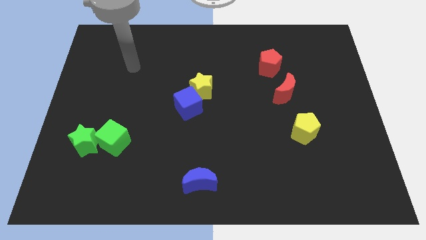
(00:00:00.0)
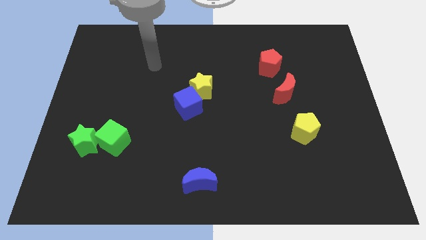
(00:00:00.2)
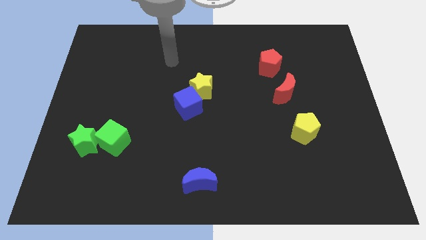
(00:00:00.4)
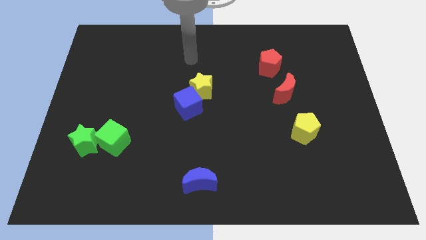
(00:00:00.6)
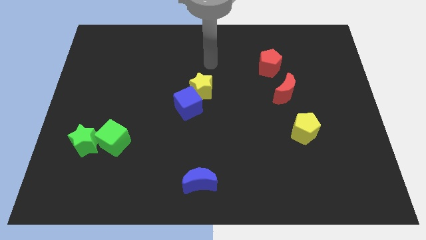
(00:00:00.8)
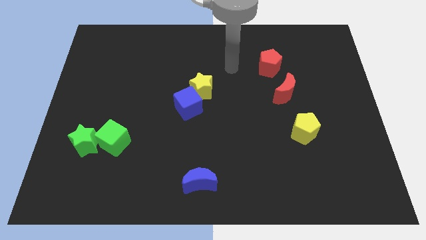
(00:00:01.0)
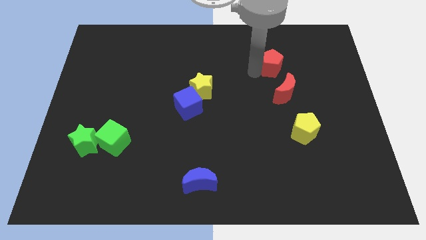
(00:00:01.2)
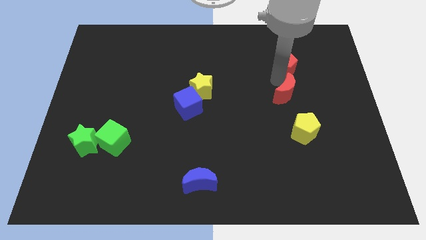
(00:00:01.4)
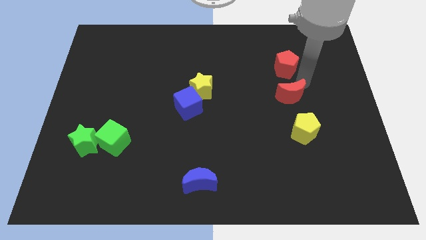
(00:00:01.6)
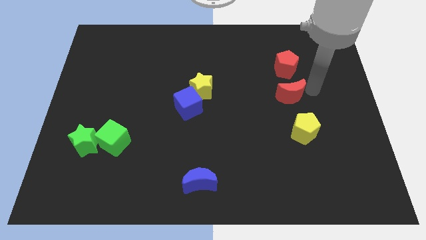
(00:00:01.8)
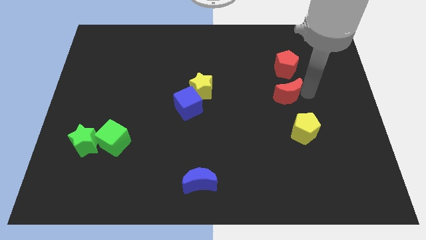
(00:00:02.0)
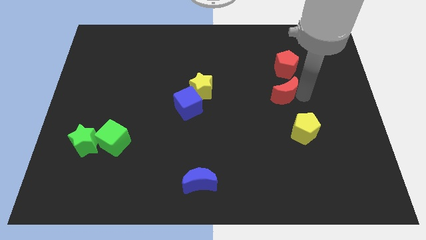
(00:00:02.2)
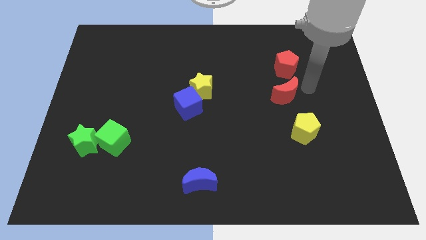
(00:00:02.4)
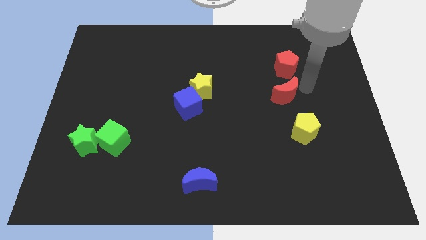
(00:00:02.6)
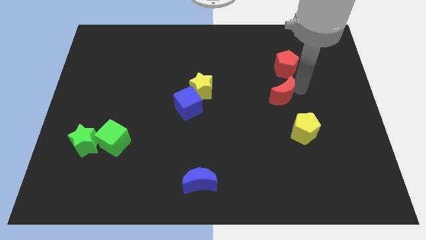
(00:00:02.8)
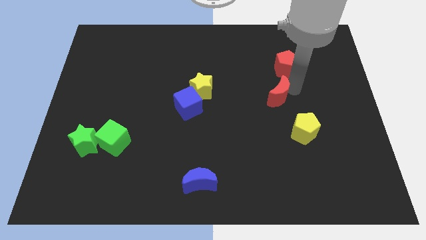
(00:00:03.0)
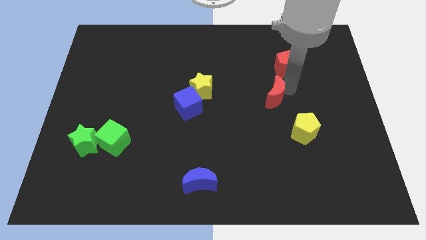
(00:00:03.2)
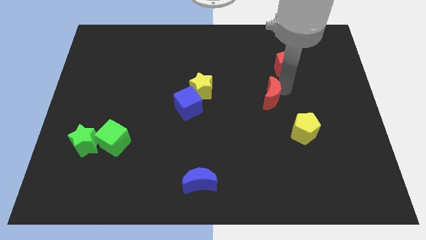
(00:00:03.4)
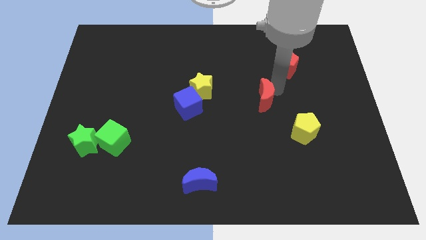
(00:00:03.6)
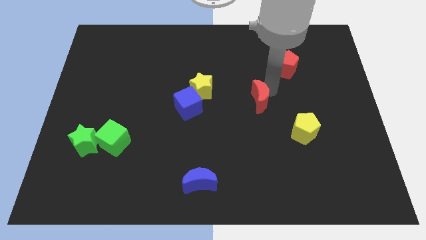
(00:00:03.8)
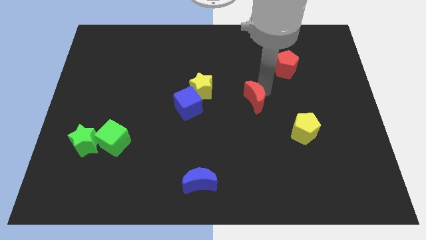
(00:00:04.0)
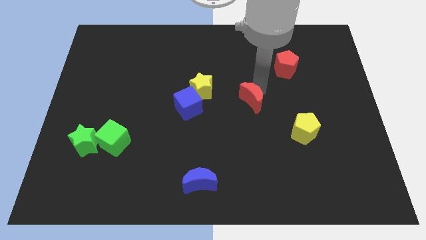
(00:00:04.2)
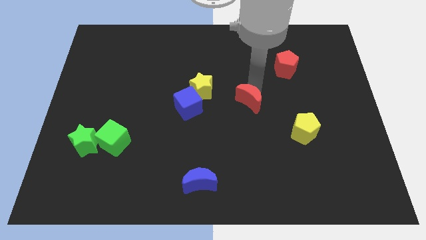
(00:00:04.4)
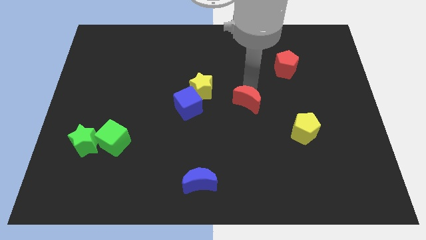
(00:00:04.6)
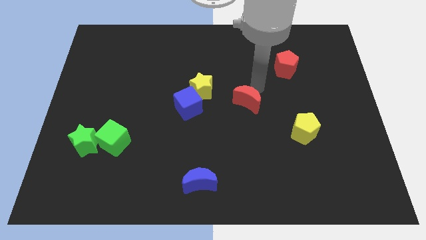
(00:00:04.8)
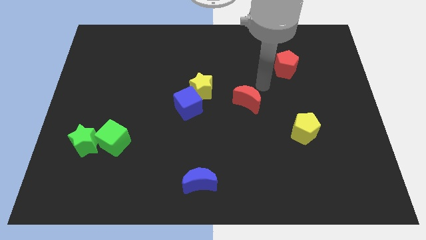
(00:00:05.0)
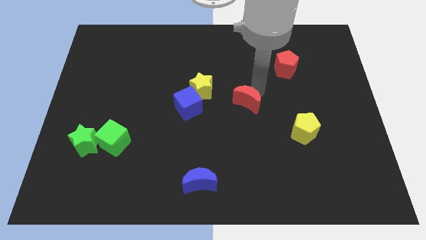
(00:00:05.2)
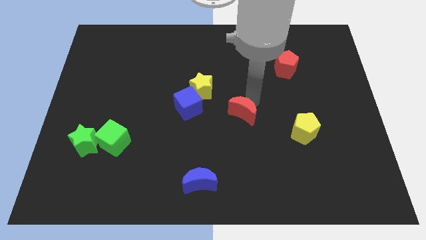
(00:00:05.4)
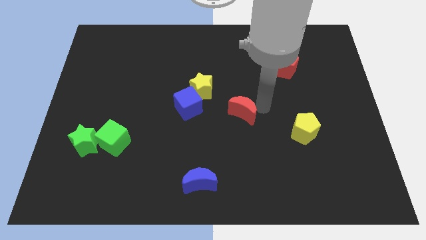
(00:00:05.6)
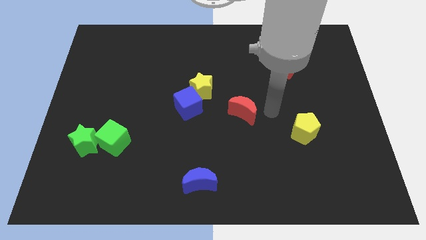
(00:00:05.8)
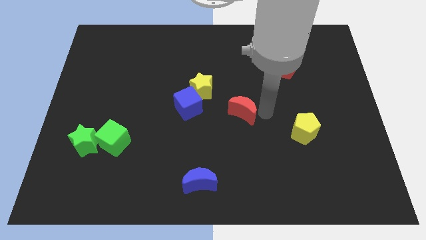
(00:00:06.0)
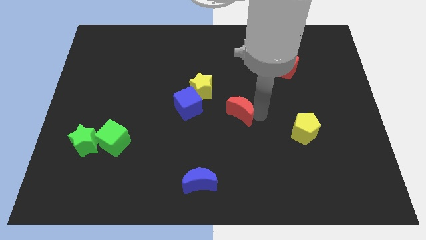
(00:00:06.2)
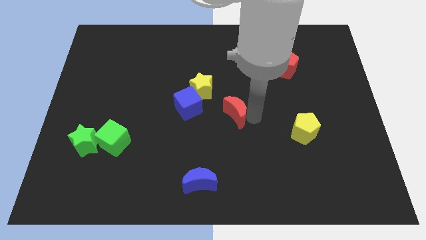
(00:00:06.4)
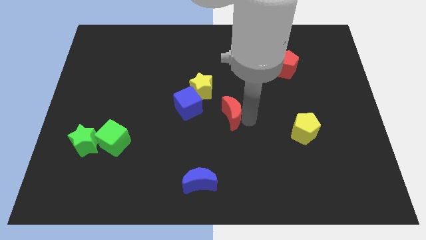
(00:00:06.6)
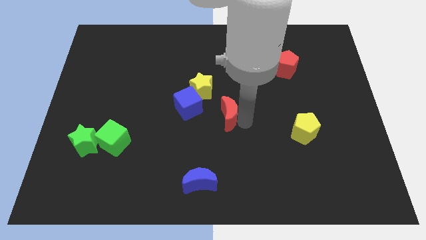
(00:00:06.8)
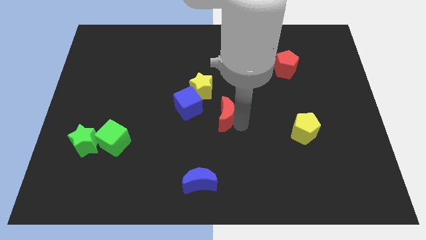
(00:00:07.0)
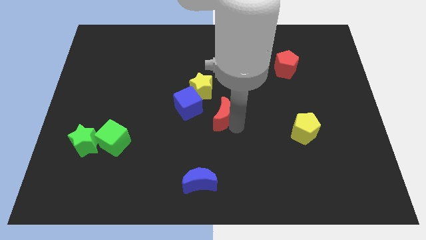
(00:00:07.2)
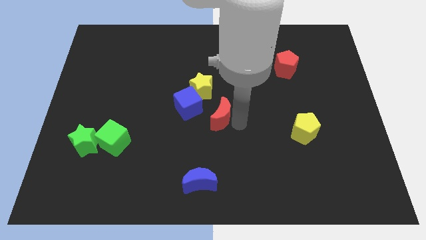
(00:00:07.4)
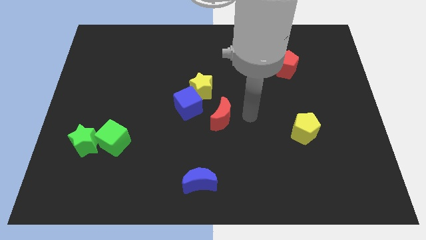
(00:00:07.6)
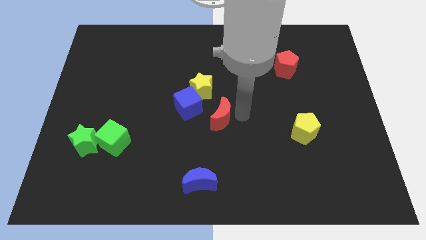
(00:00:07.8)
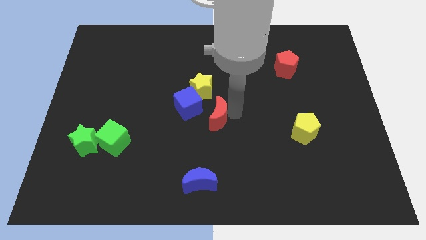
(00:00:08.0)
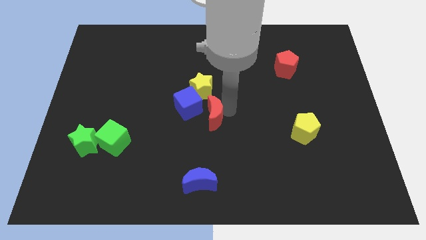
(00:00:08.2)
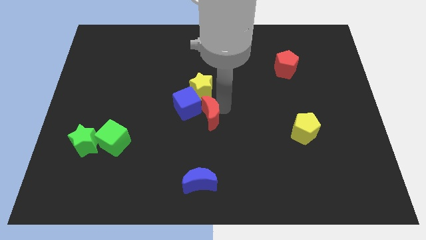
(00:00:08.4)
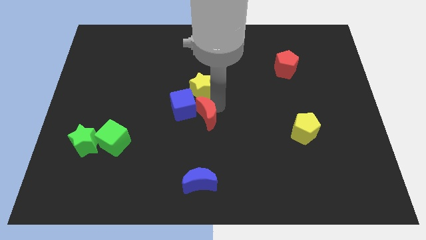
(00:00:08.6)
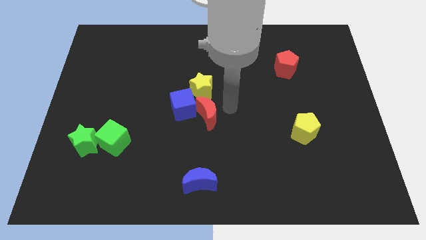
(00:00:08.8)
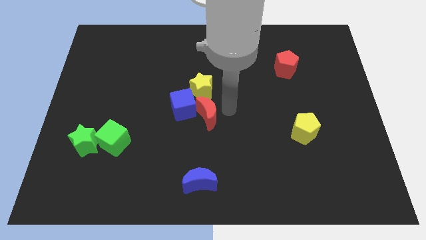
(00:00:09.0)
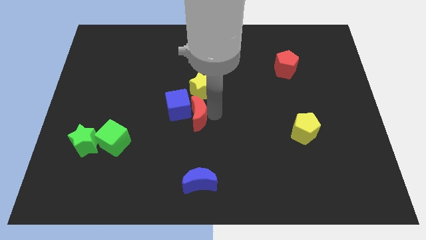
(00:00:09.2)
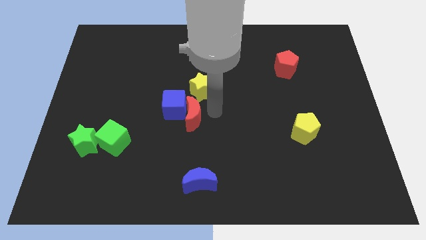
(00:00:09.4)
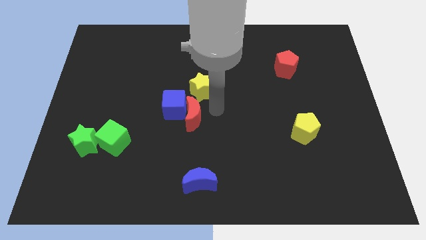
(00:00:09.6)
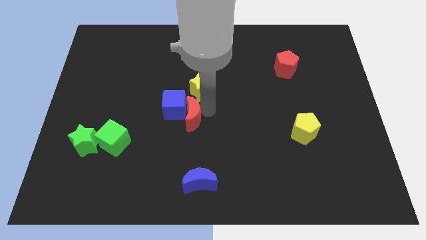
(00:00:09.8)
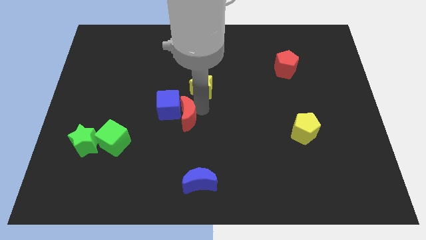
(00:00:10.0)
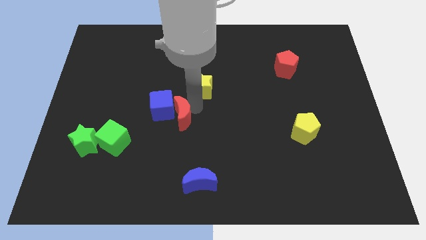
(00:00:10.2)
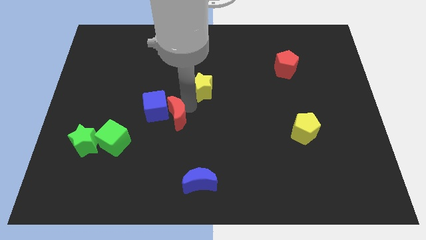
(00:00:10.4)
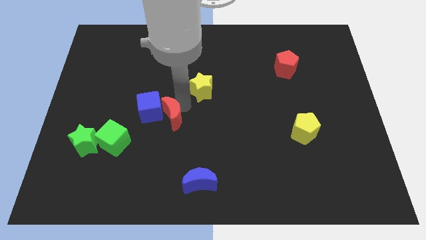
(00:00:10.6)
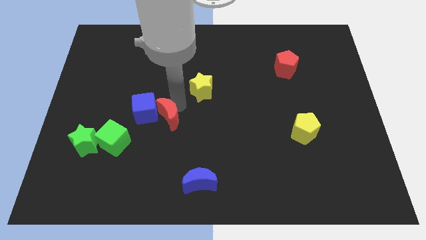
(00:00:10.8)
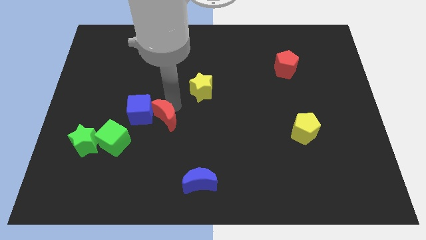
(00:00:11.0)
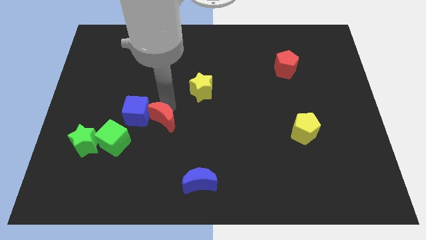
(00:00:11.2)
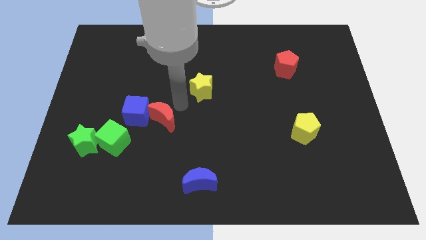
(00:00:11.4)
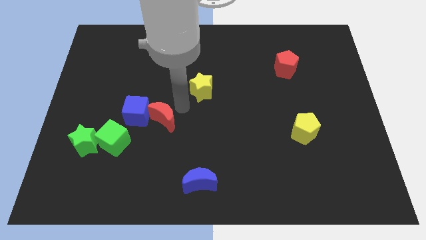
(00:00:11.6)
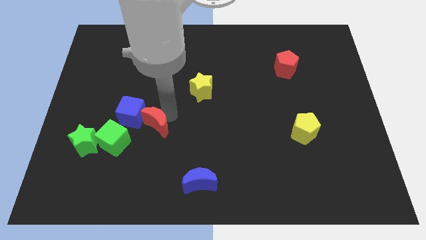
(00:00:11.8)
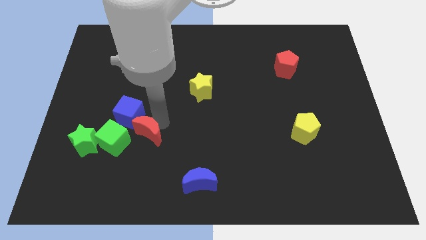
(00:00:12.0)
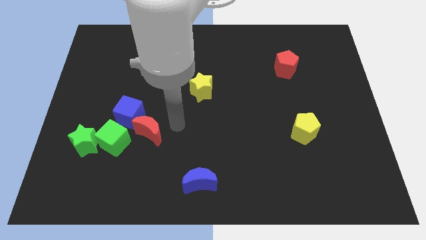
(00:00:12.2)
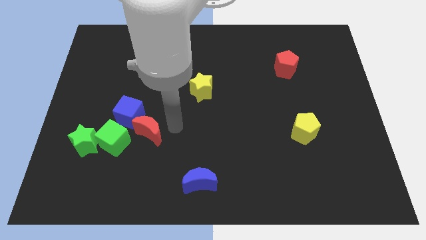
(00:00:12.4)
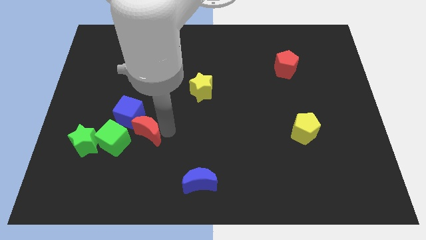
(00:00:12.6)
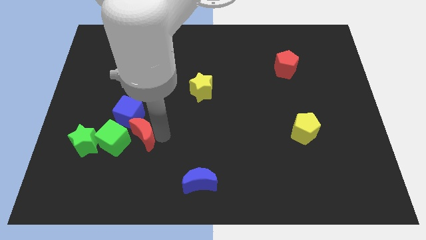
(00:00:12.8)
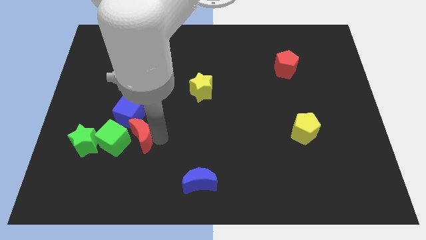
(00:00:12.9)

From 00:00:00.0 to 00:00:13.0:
push the red moon close to the green cube
